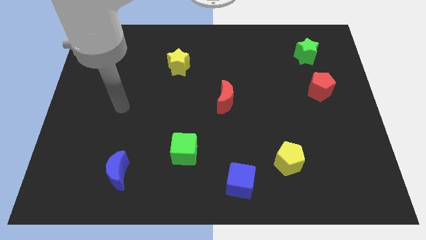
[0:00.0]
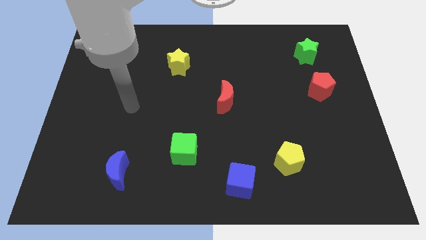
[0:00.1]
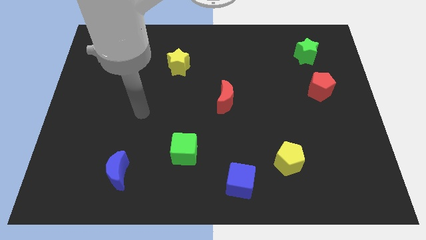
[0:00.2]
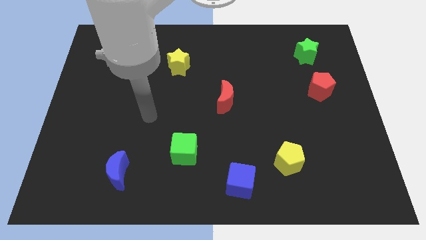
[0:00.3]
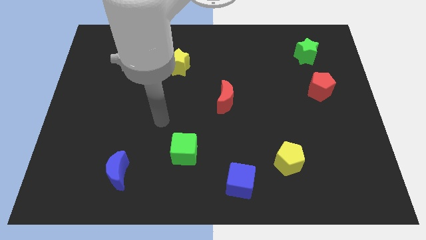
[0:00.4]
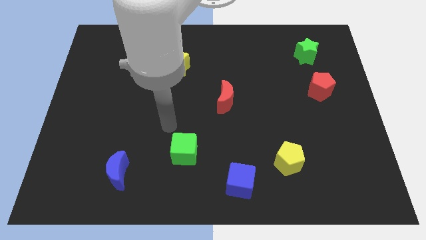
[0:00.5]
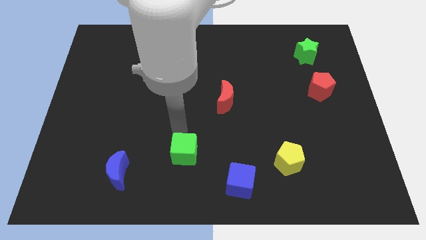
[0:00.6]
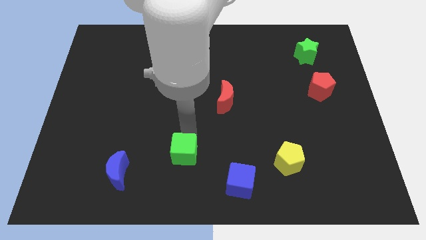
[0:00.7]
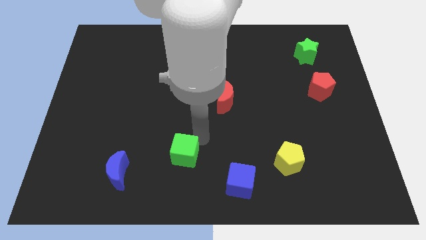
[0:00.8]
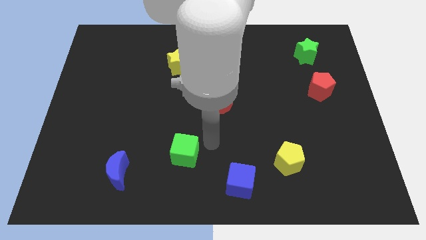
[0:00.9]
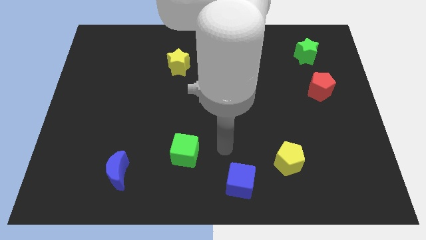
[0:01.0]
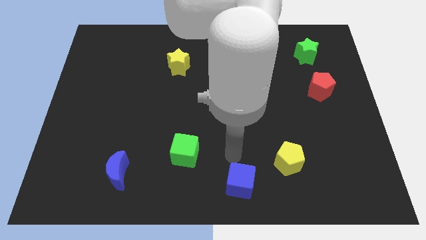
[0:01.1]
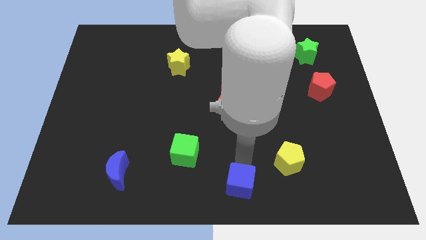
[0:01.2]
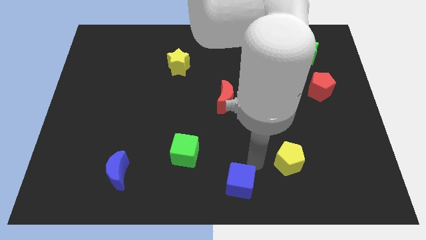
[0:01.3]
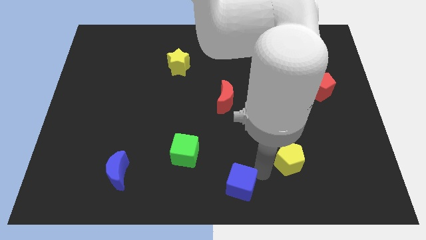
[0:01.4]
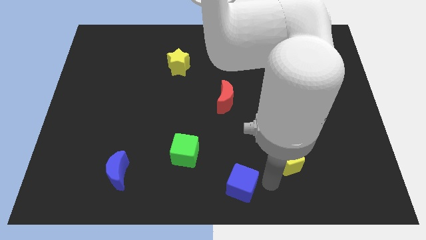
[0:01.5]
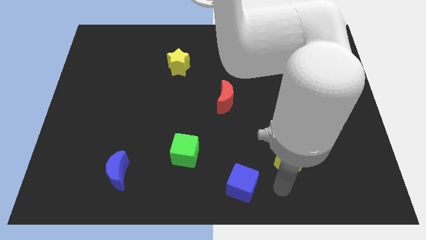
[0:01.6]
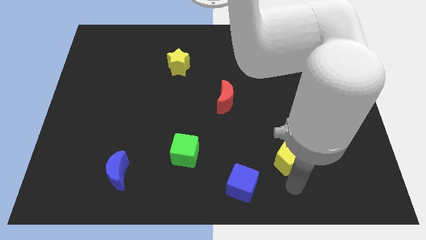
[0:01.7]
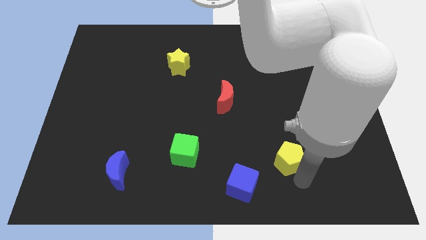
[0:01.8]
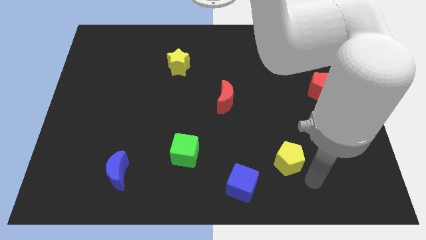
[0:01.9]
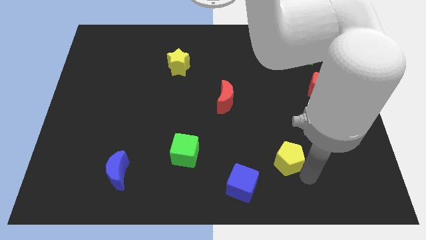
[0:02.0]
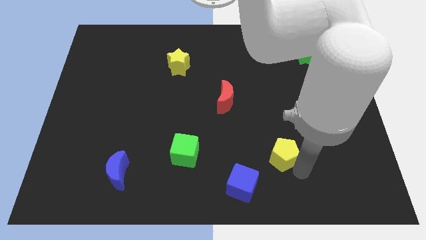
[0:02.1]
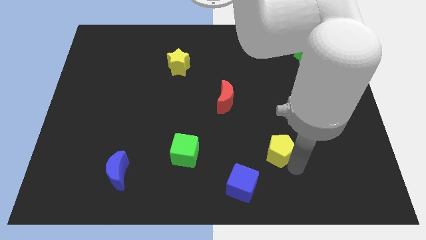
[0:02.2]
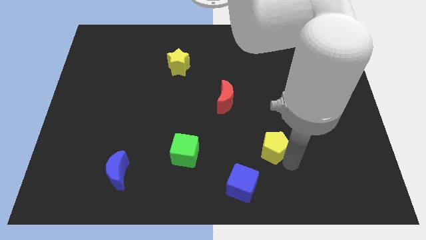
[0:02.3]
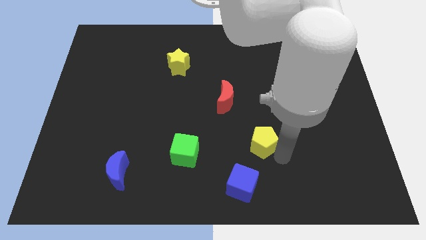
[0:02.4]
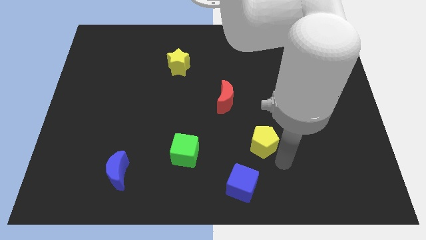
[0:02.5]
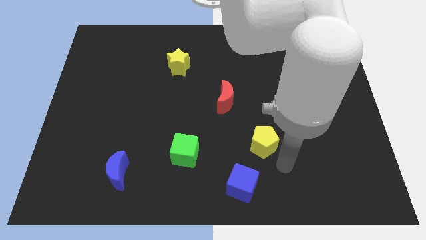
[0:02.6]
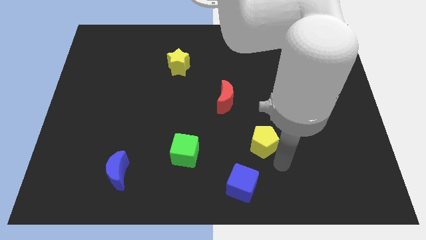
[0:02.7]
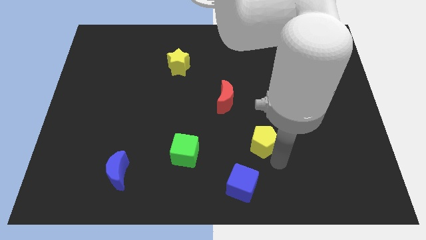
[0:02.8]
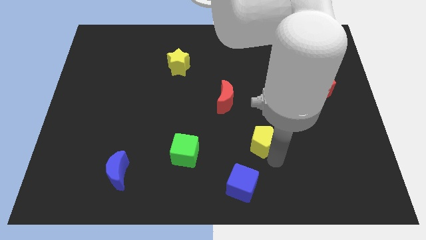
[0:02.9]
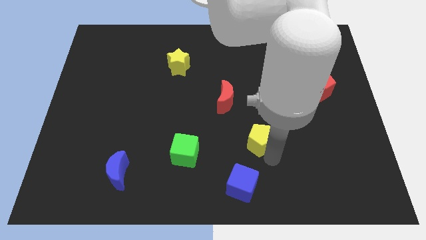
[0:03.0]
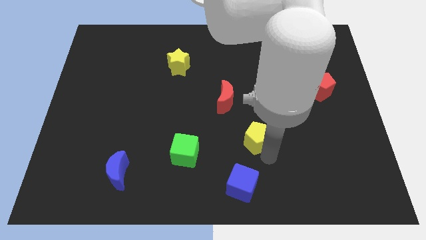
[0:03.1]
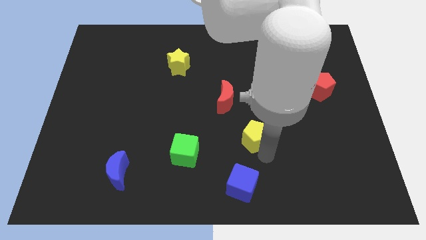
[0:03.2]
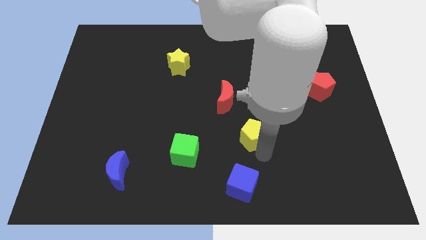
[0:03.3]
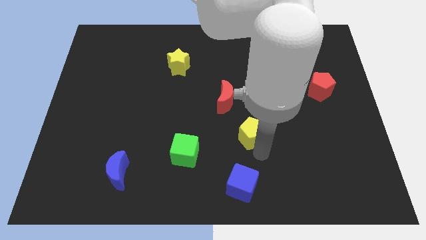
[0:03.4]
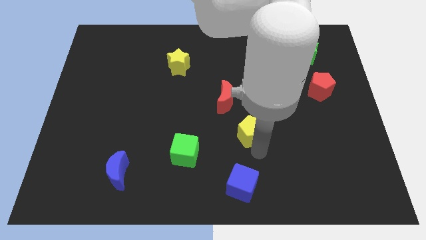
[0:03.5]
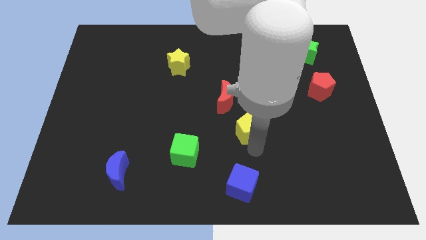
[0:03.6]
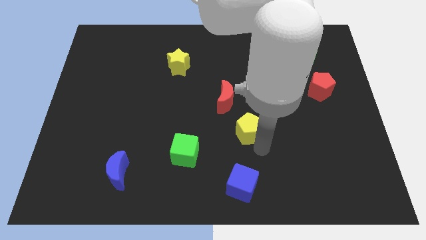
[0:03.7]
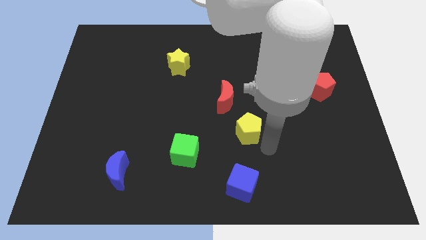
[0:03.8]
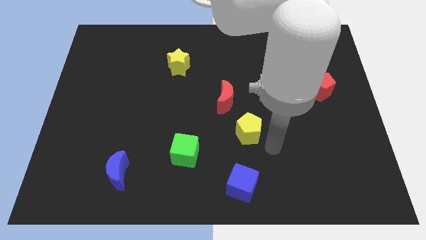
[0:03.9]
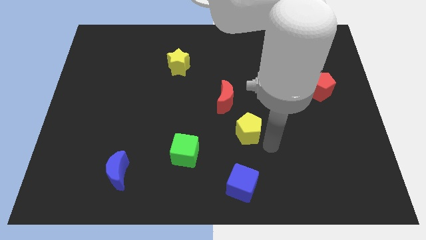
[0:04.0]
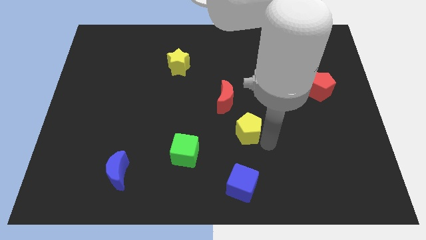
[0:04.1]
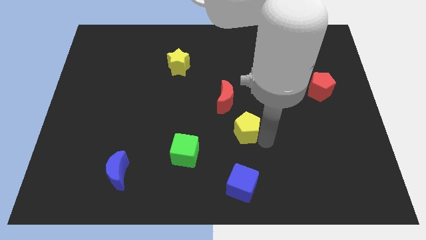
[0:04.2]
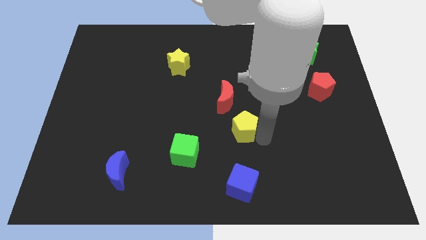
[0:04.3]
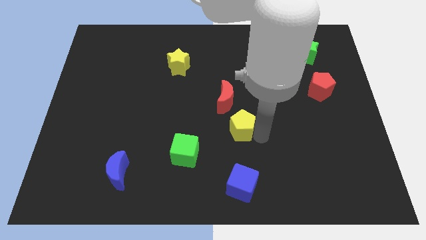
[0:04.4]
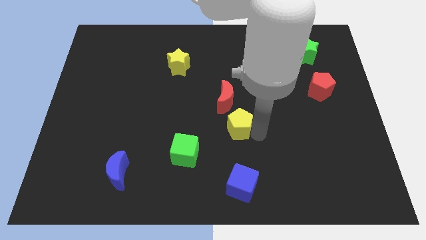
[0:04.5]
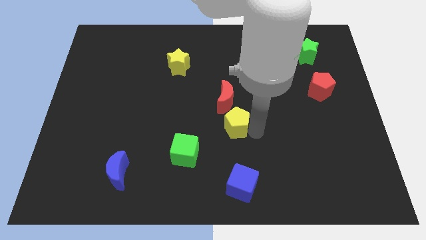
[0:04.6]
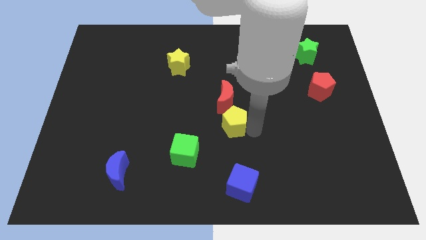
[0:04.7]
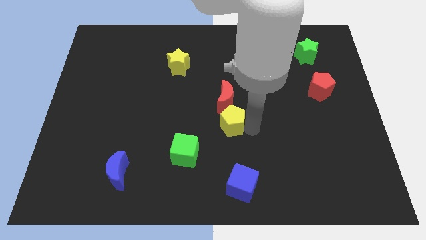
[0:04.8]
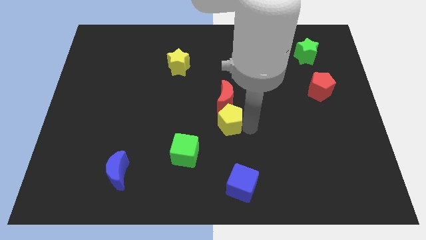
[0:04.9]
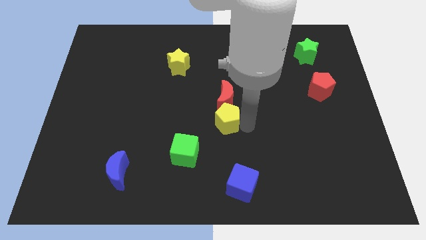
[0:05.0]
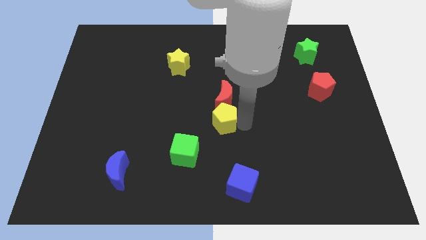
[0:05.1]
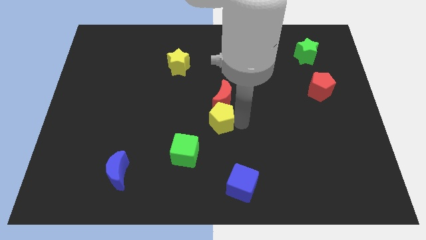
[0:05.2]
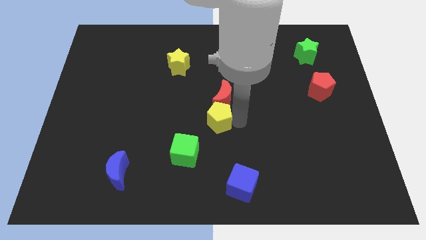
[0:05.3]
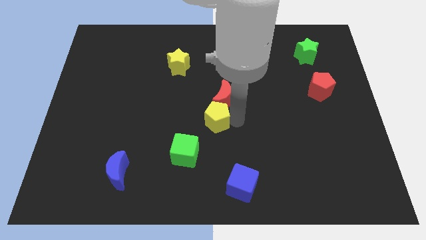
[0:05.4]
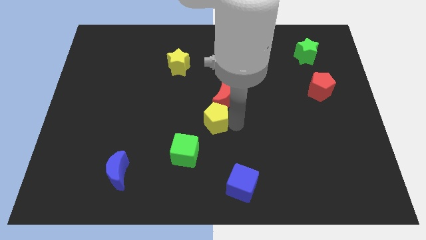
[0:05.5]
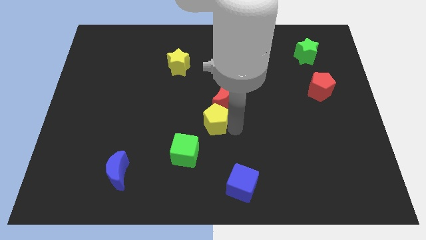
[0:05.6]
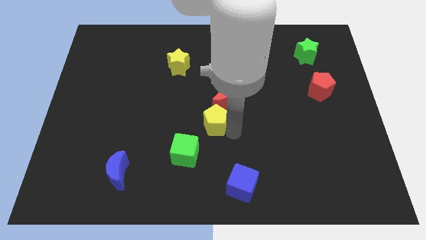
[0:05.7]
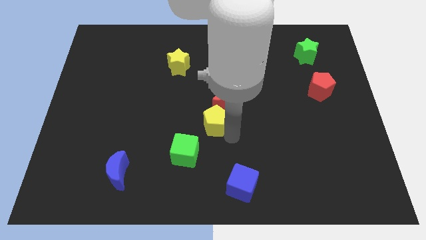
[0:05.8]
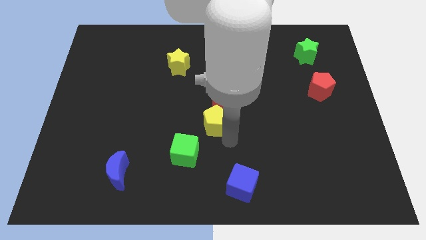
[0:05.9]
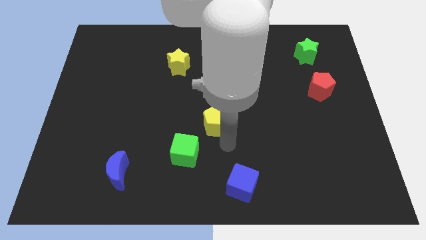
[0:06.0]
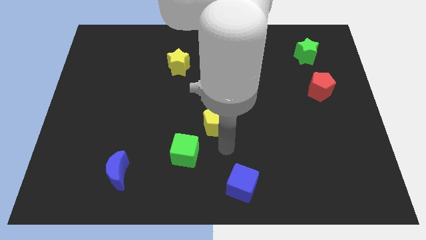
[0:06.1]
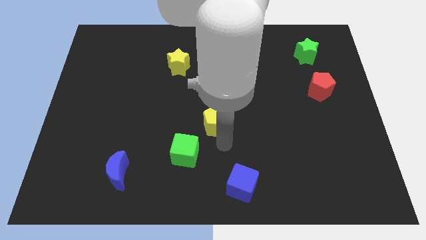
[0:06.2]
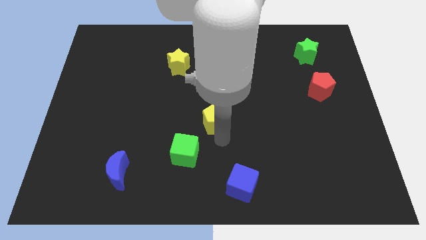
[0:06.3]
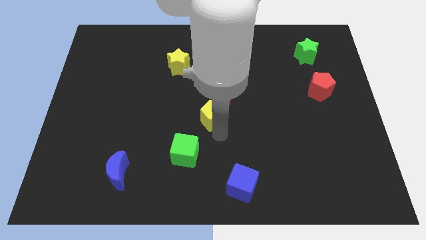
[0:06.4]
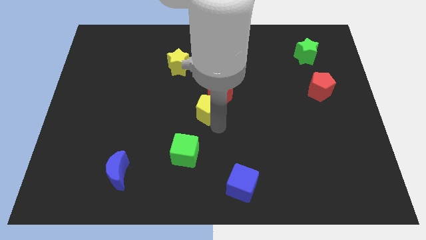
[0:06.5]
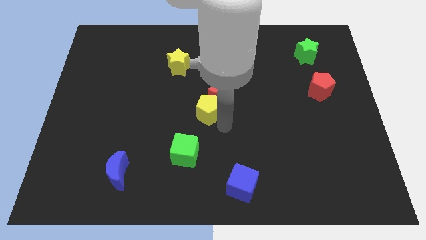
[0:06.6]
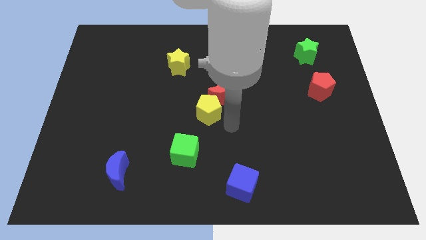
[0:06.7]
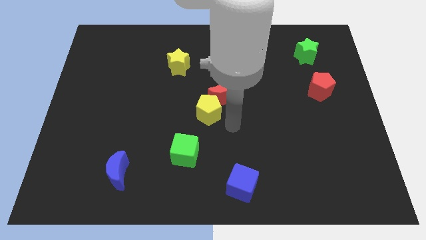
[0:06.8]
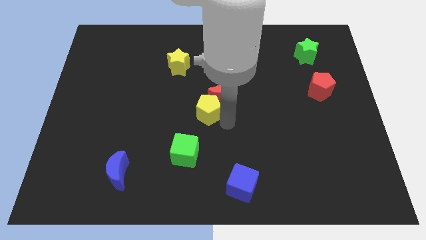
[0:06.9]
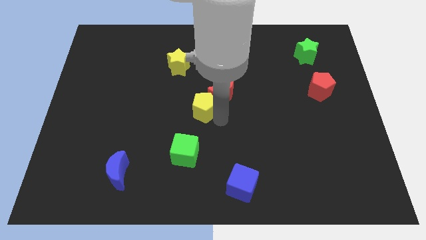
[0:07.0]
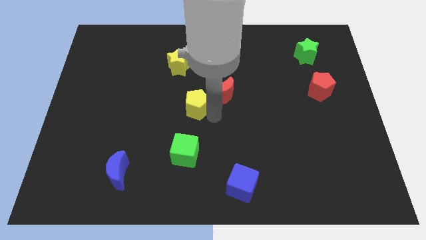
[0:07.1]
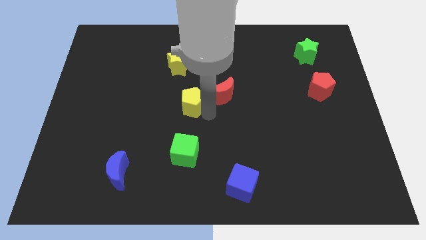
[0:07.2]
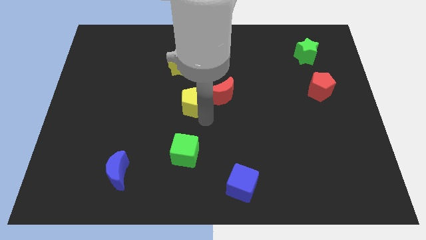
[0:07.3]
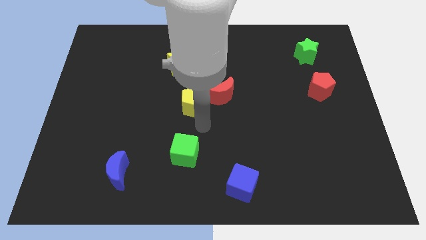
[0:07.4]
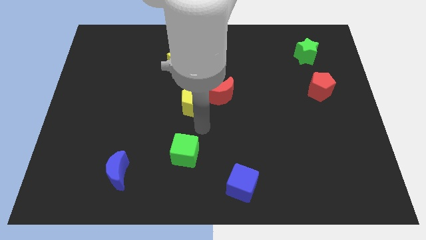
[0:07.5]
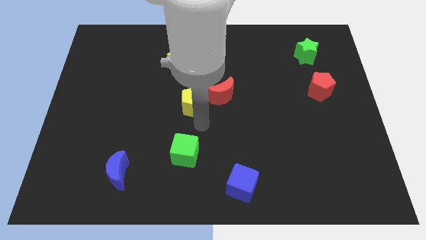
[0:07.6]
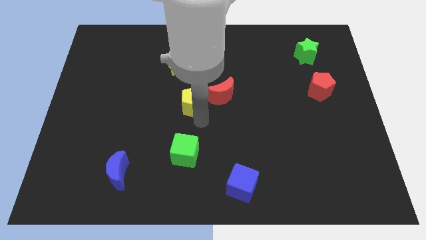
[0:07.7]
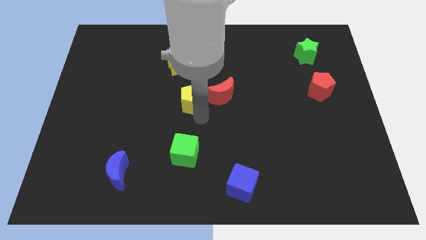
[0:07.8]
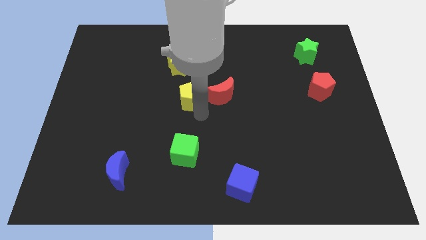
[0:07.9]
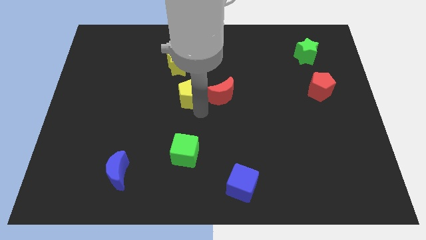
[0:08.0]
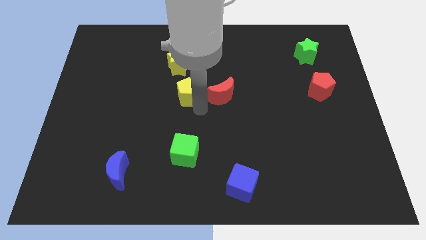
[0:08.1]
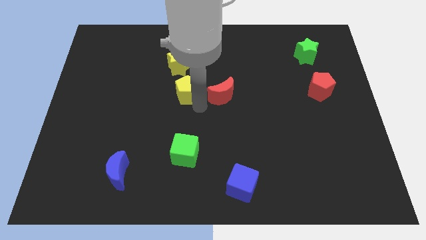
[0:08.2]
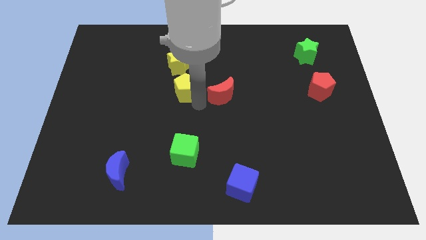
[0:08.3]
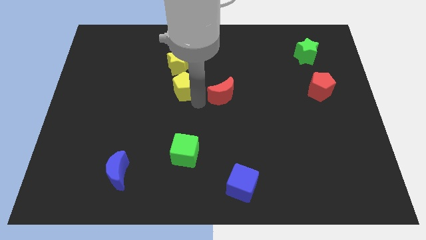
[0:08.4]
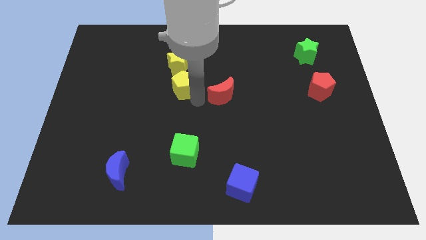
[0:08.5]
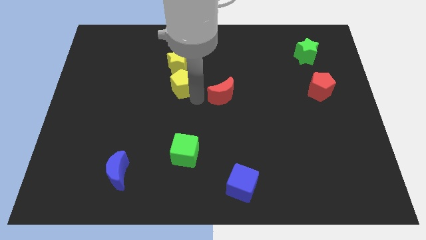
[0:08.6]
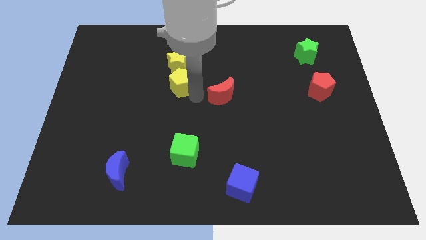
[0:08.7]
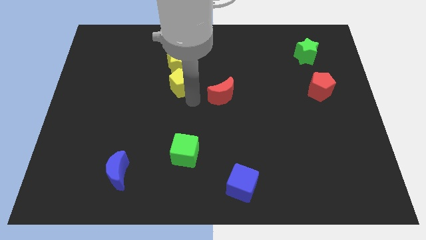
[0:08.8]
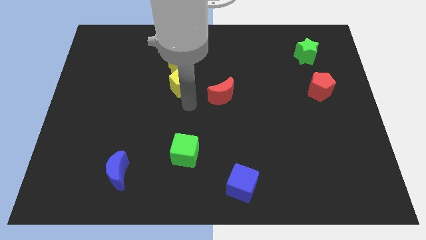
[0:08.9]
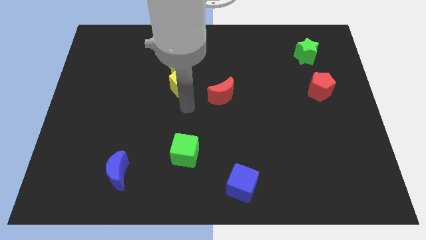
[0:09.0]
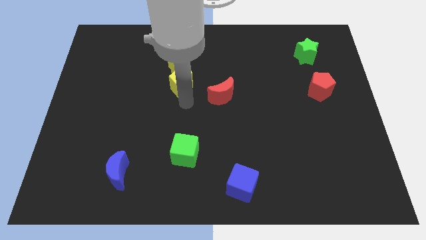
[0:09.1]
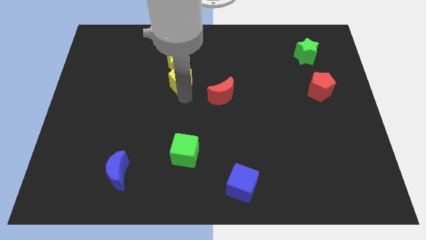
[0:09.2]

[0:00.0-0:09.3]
move the yellow pentagon close to the yellow star
